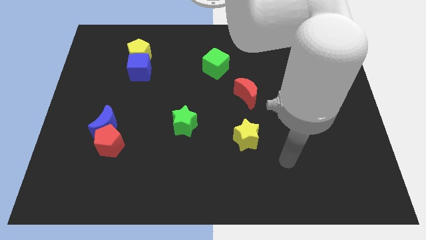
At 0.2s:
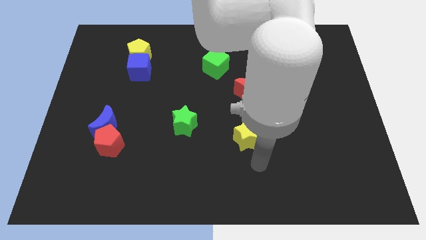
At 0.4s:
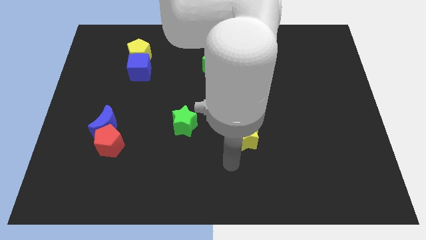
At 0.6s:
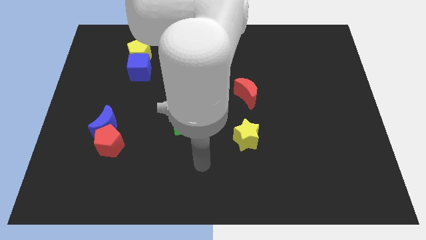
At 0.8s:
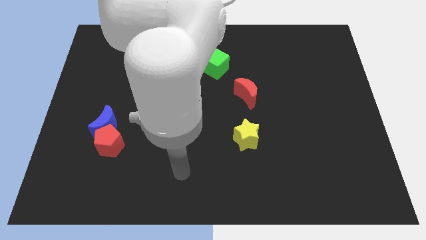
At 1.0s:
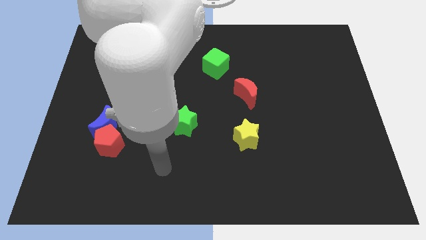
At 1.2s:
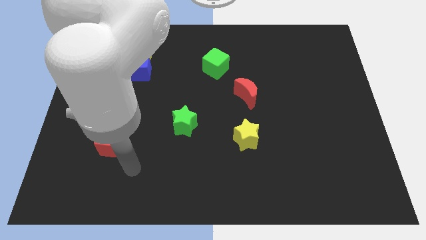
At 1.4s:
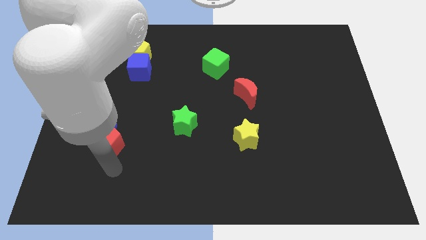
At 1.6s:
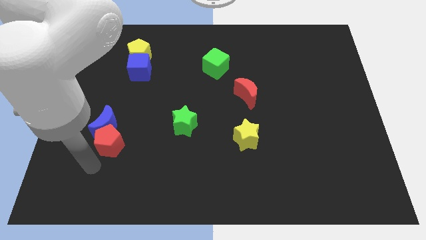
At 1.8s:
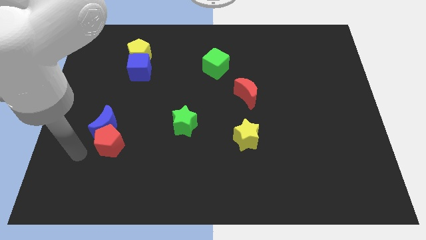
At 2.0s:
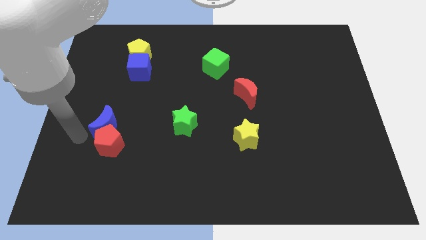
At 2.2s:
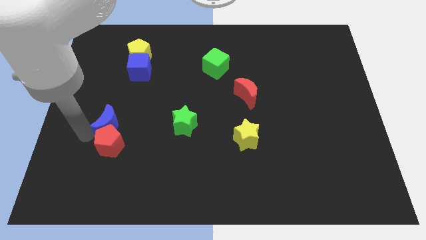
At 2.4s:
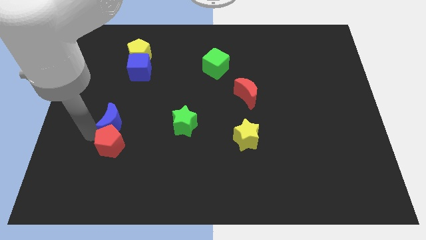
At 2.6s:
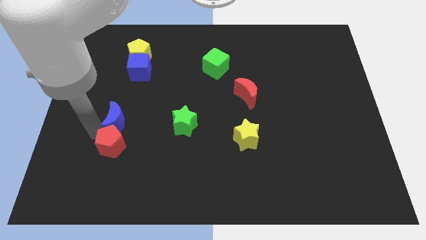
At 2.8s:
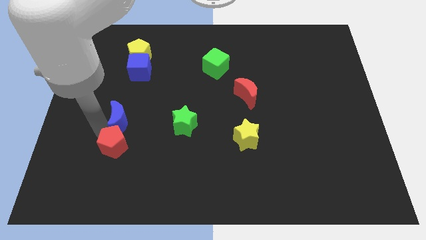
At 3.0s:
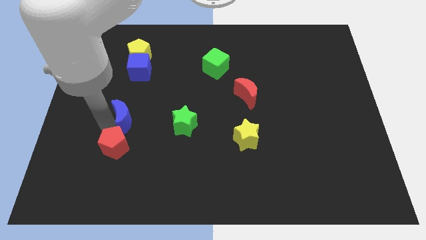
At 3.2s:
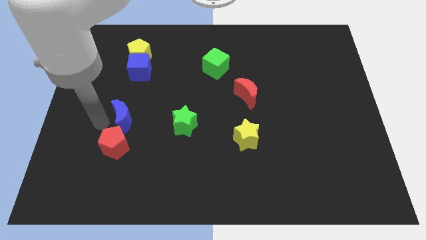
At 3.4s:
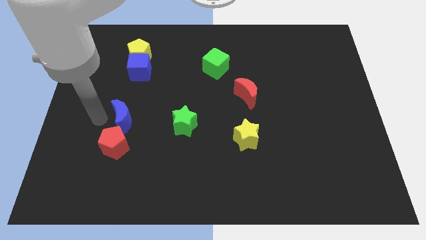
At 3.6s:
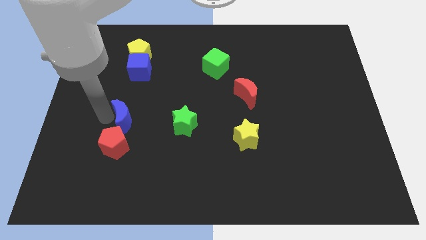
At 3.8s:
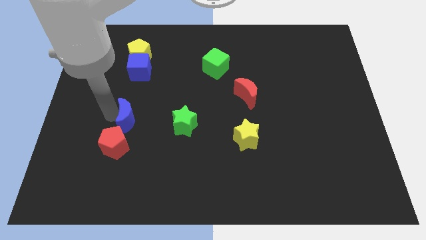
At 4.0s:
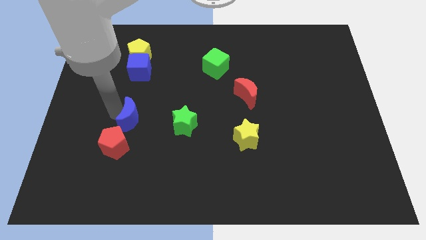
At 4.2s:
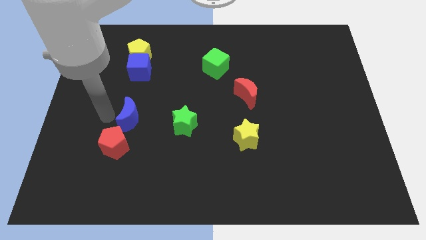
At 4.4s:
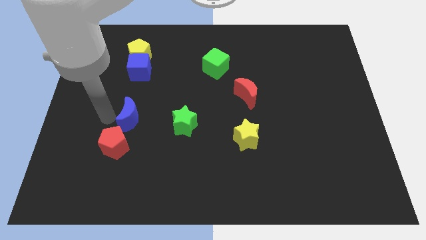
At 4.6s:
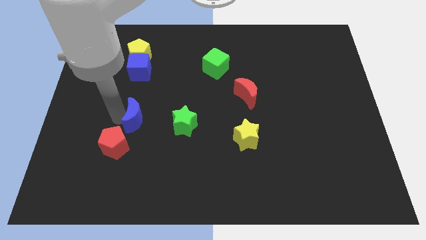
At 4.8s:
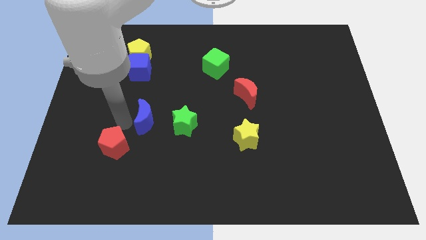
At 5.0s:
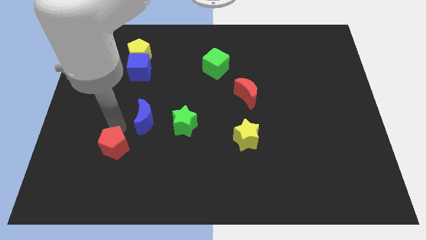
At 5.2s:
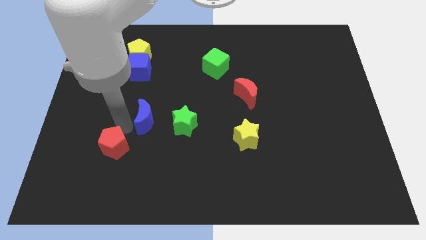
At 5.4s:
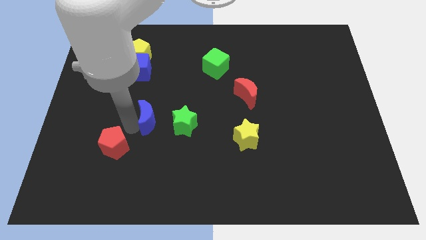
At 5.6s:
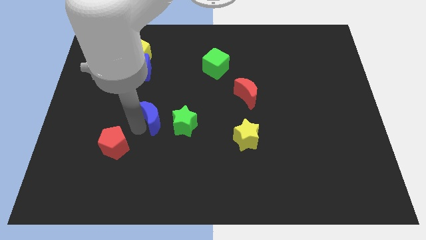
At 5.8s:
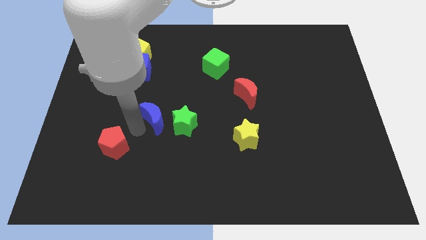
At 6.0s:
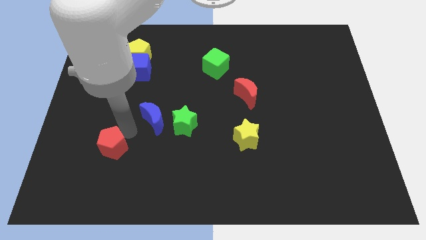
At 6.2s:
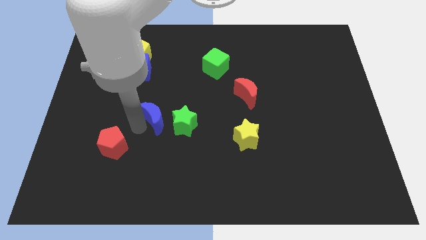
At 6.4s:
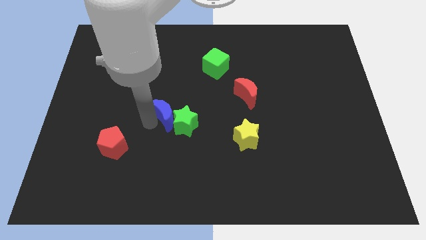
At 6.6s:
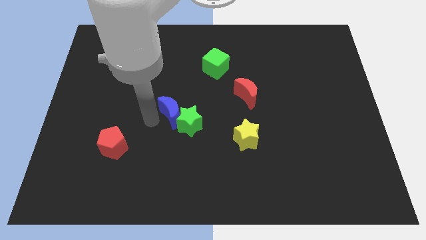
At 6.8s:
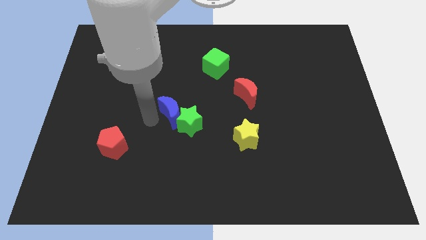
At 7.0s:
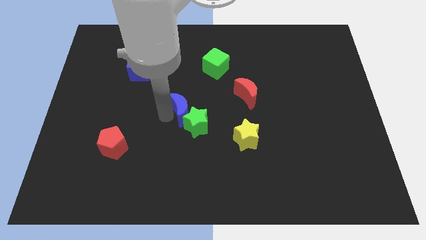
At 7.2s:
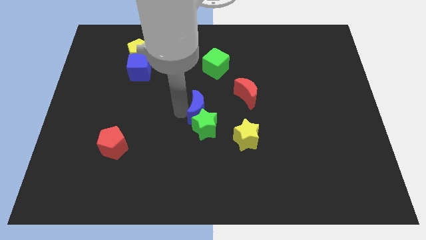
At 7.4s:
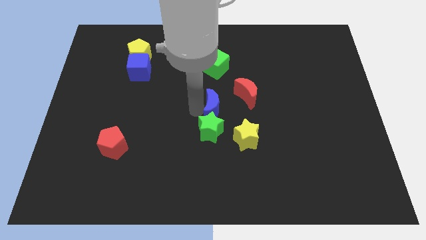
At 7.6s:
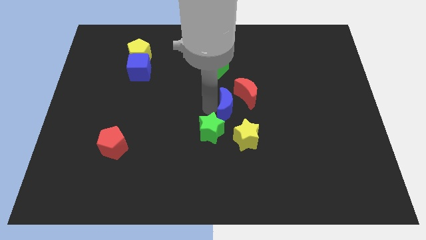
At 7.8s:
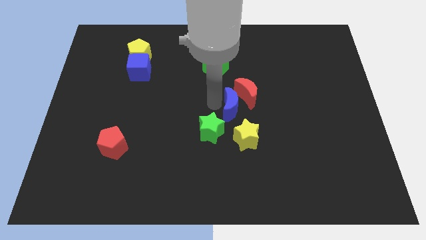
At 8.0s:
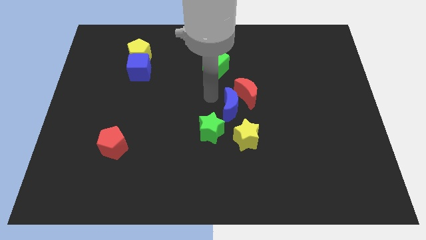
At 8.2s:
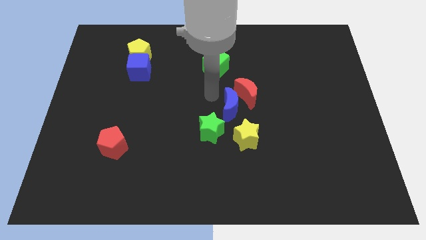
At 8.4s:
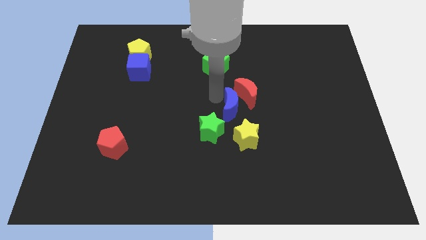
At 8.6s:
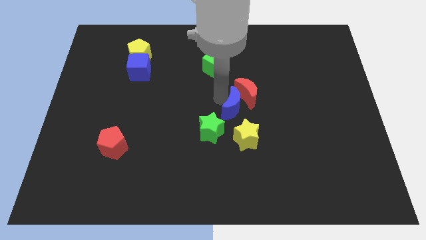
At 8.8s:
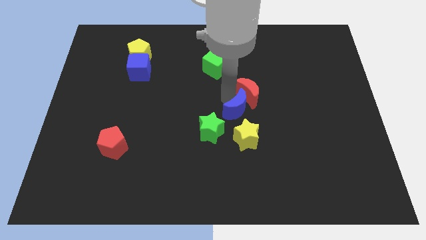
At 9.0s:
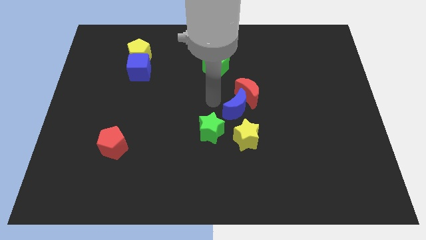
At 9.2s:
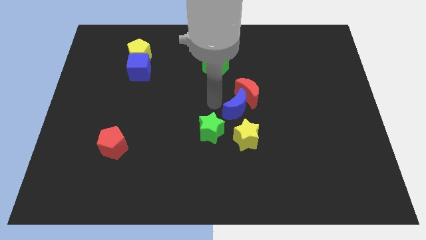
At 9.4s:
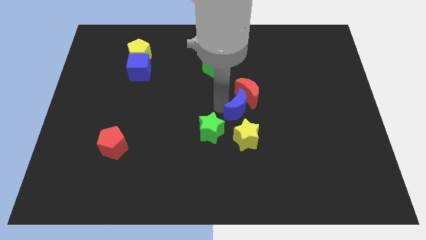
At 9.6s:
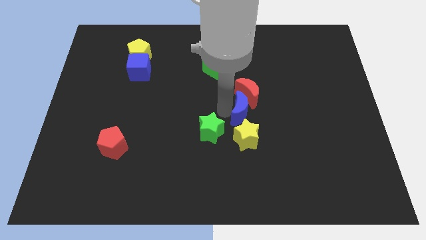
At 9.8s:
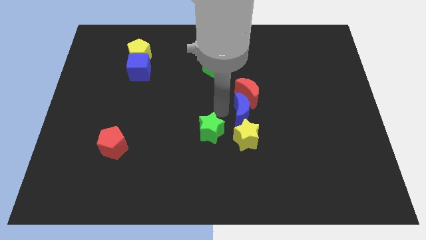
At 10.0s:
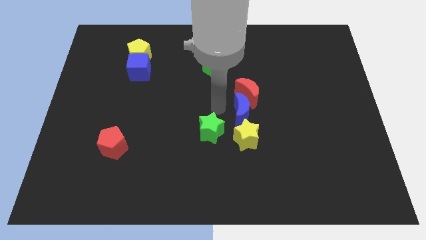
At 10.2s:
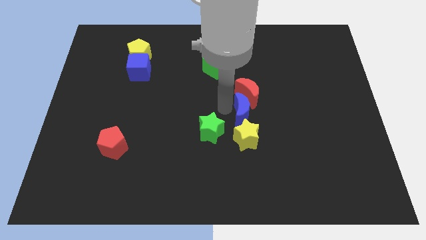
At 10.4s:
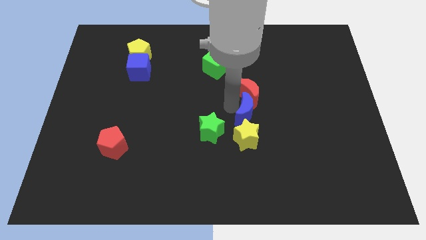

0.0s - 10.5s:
move the blue moon diagonally up and to the right of the yellow star

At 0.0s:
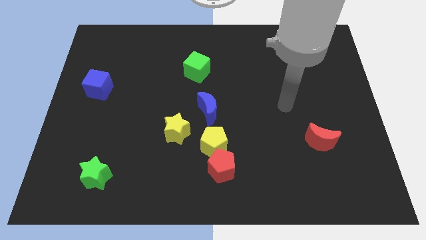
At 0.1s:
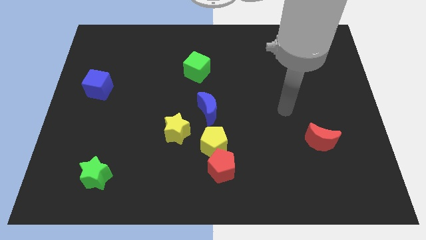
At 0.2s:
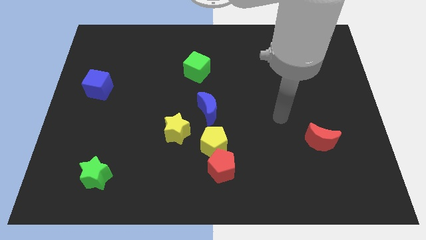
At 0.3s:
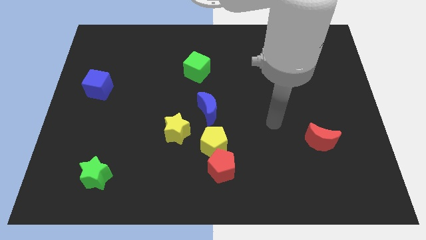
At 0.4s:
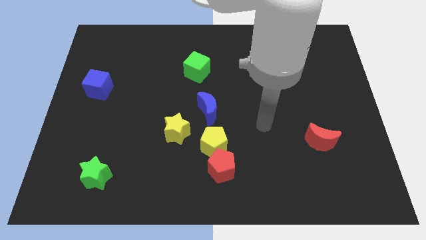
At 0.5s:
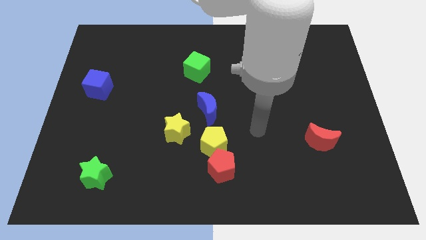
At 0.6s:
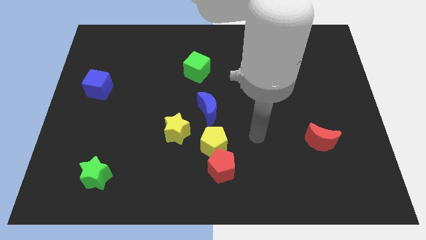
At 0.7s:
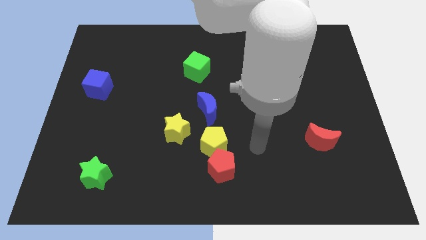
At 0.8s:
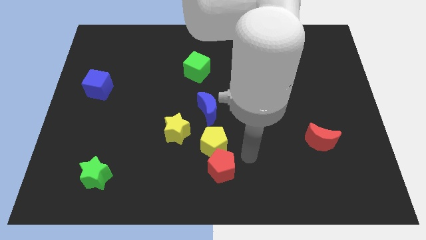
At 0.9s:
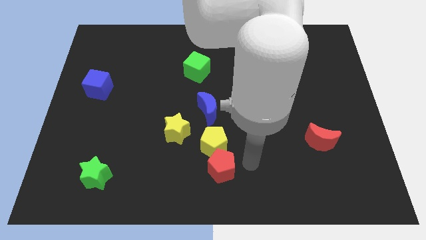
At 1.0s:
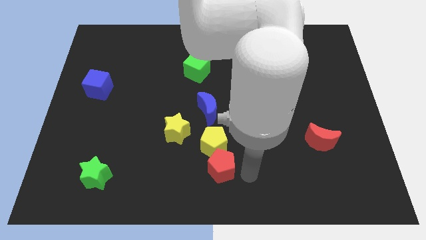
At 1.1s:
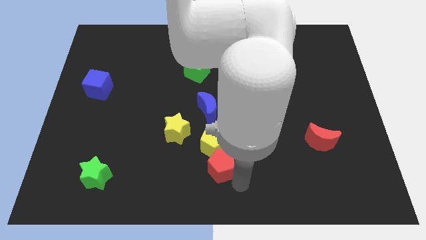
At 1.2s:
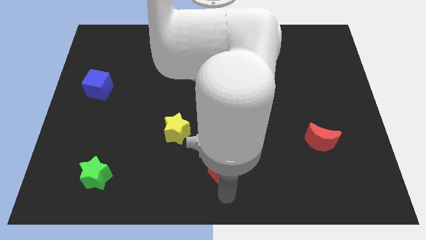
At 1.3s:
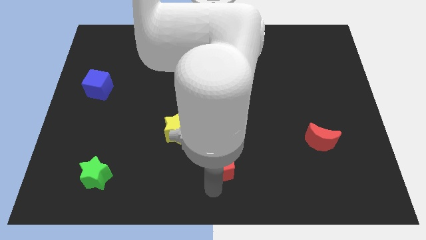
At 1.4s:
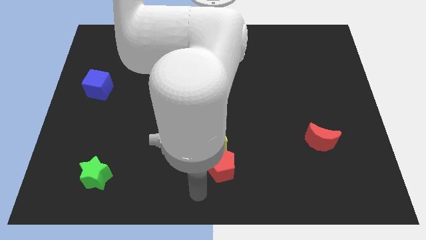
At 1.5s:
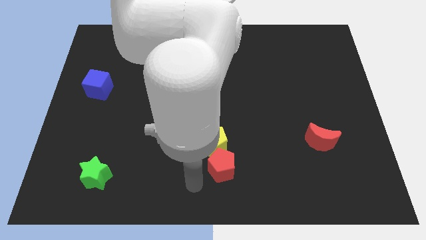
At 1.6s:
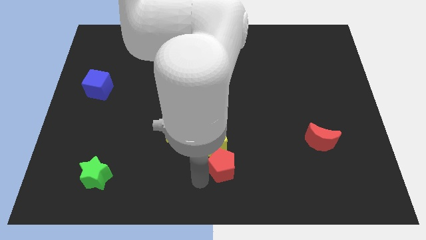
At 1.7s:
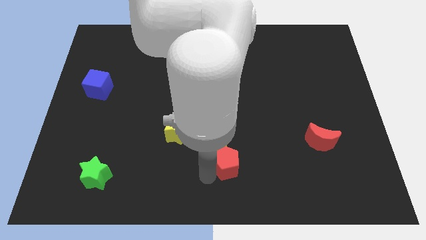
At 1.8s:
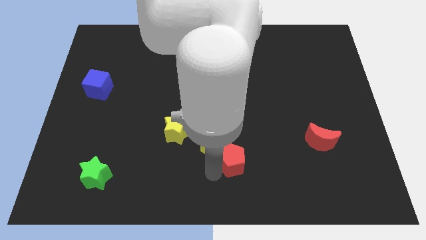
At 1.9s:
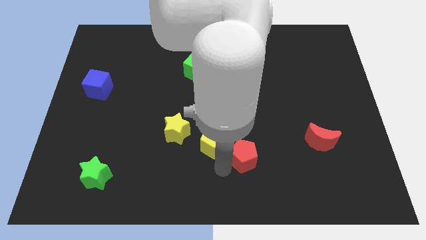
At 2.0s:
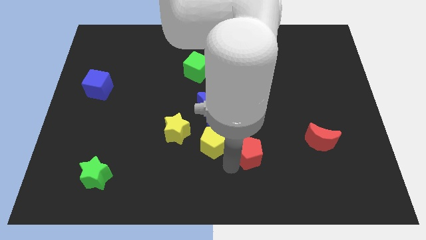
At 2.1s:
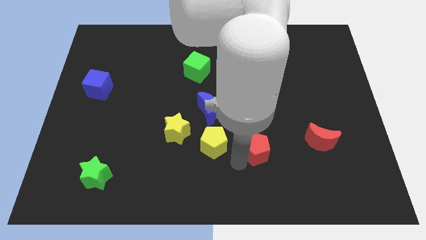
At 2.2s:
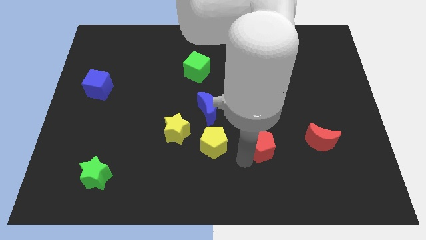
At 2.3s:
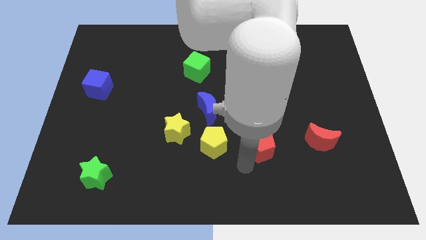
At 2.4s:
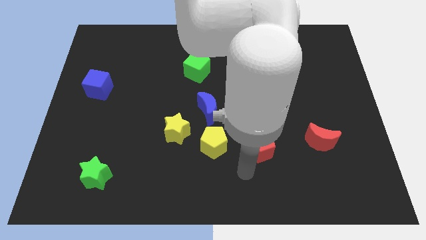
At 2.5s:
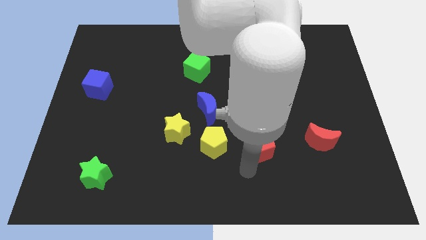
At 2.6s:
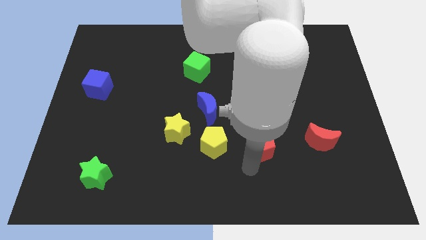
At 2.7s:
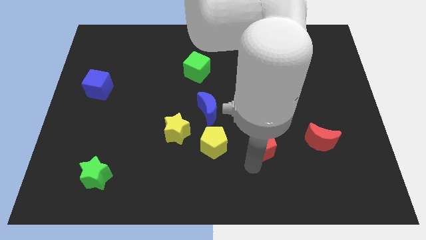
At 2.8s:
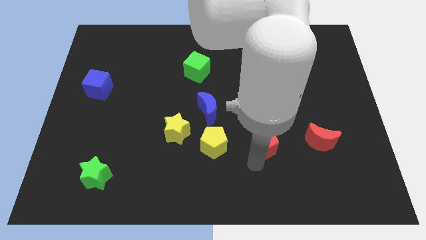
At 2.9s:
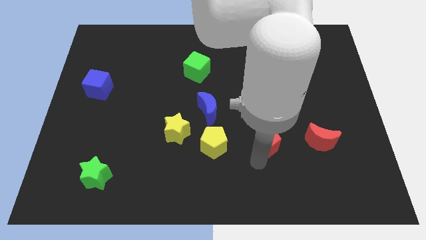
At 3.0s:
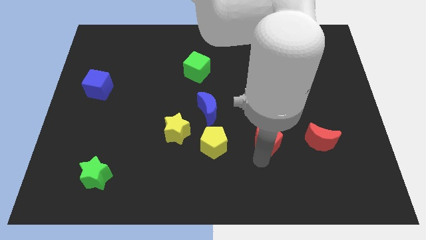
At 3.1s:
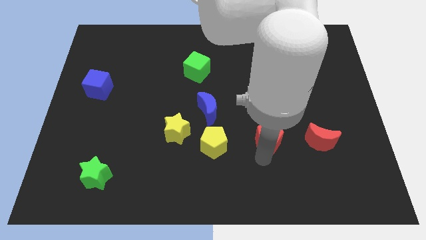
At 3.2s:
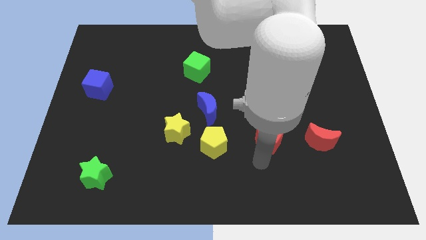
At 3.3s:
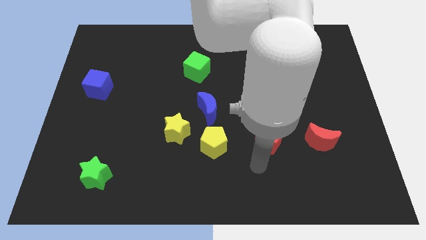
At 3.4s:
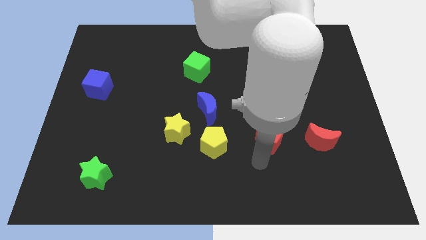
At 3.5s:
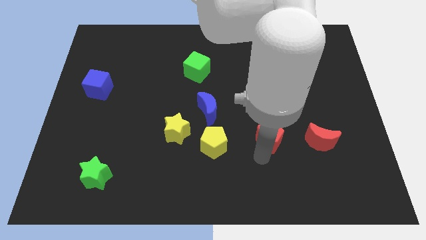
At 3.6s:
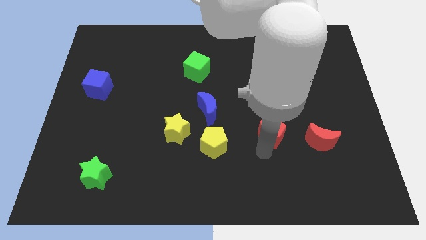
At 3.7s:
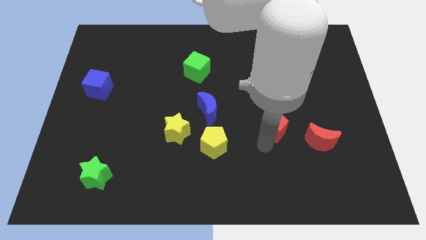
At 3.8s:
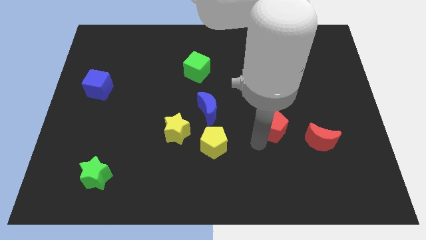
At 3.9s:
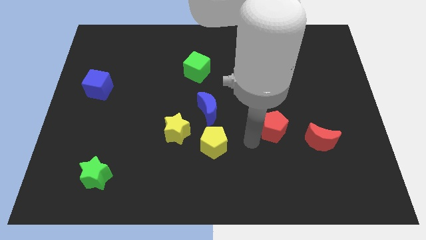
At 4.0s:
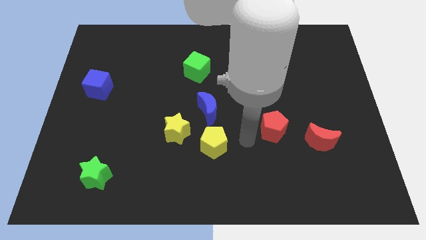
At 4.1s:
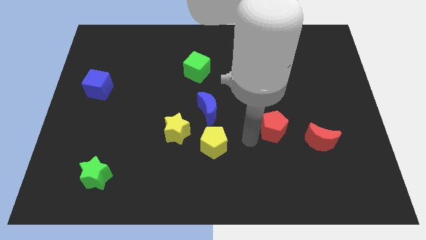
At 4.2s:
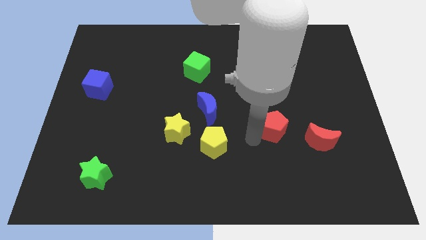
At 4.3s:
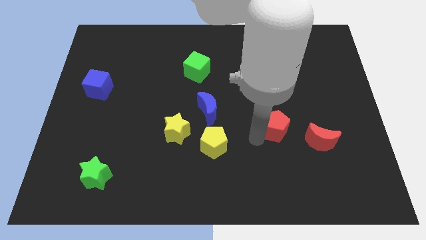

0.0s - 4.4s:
push the red pentagon diagonally up and to the left of the red moon
